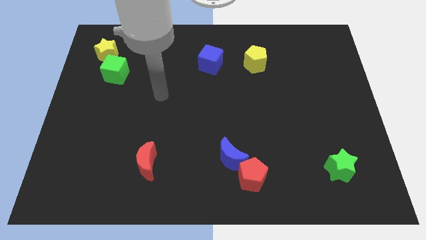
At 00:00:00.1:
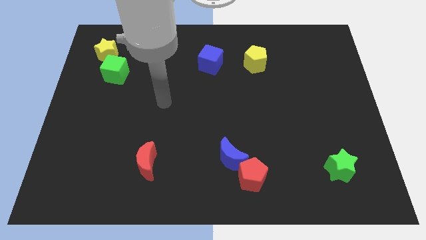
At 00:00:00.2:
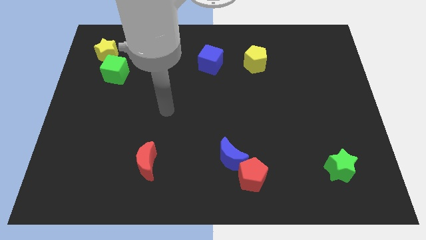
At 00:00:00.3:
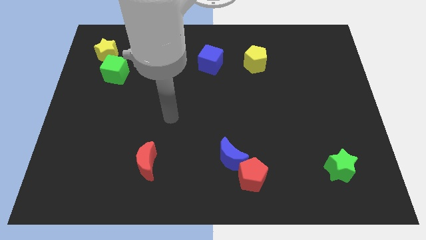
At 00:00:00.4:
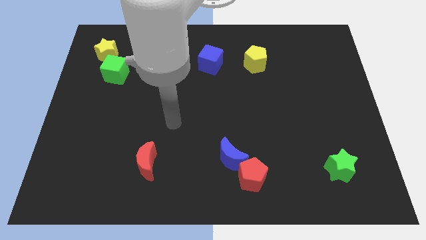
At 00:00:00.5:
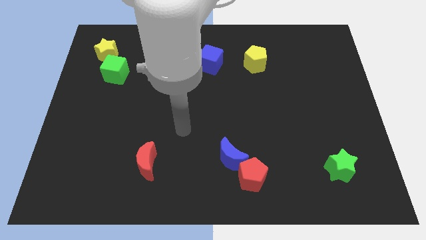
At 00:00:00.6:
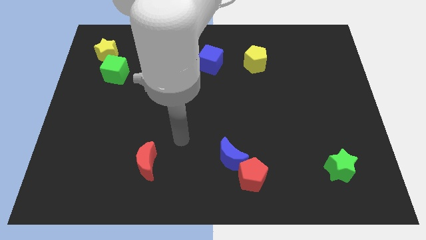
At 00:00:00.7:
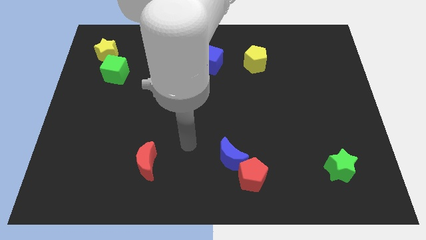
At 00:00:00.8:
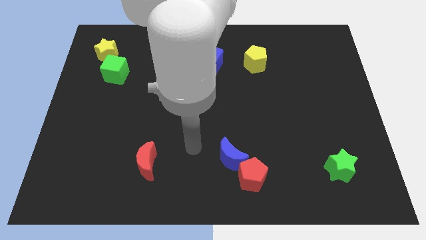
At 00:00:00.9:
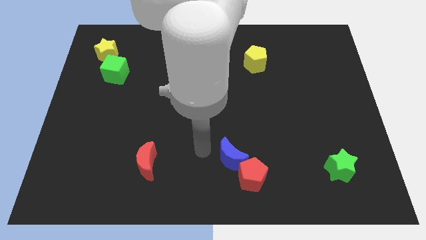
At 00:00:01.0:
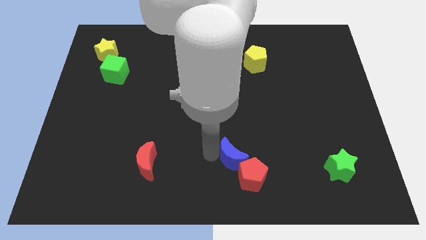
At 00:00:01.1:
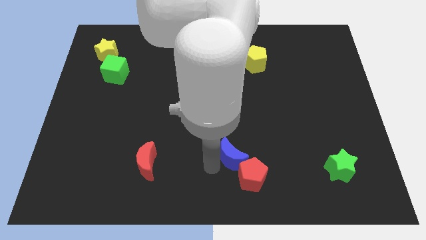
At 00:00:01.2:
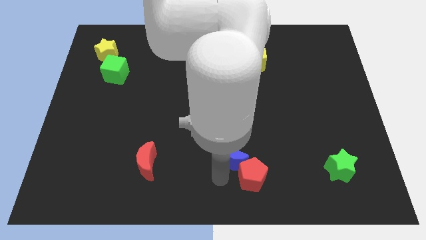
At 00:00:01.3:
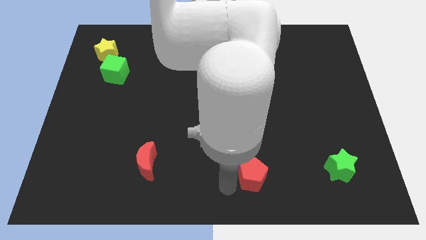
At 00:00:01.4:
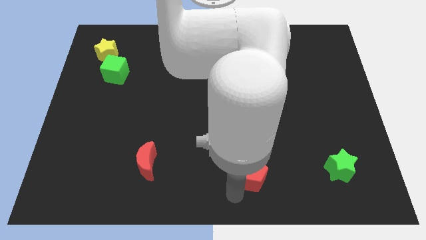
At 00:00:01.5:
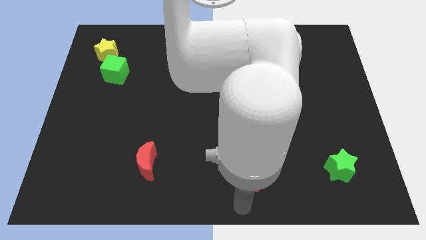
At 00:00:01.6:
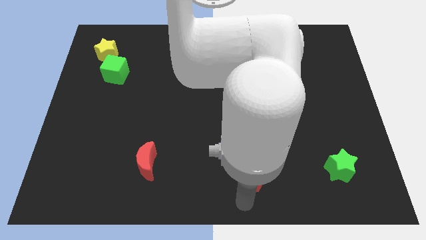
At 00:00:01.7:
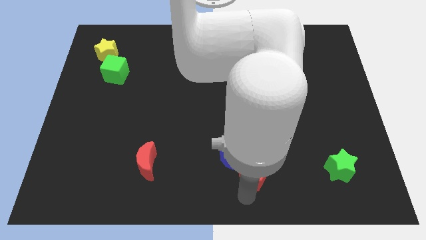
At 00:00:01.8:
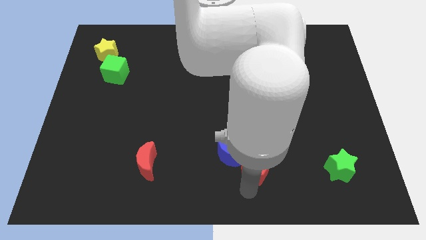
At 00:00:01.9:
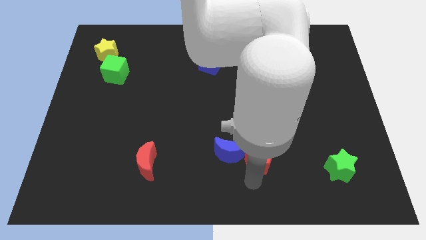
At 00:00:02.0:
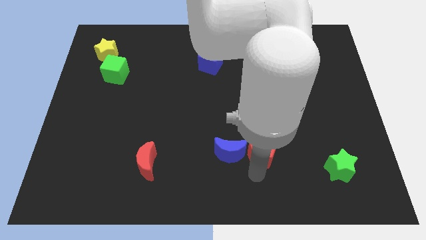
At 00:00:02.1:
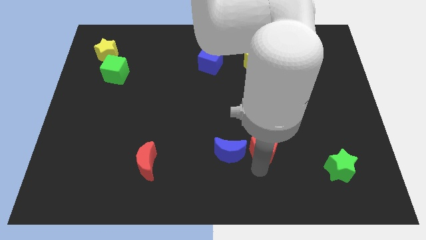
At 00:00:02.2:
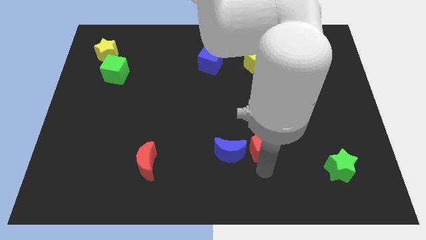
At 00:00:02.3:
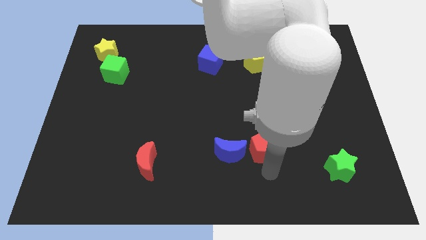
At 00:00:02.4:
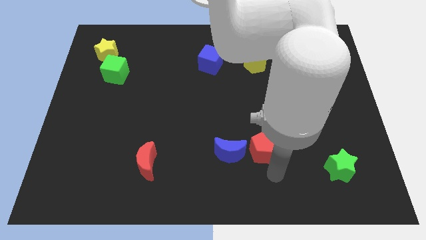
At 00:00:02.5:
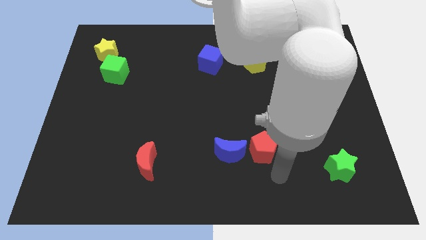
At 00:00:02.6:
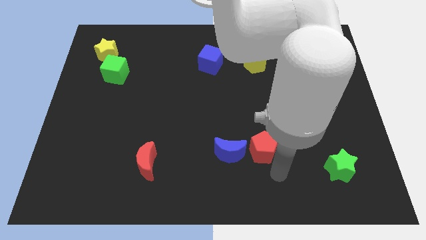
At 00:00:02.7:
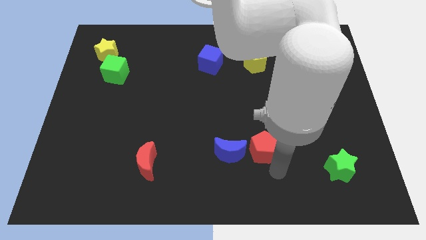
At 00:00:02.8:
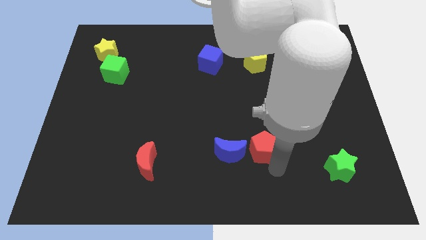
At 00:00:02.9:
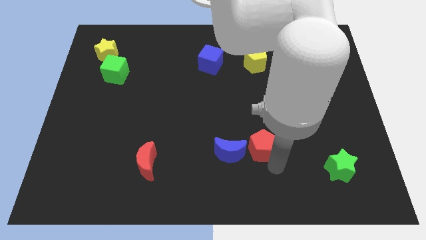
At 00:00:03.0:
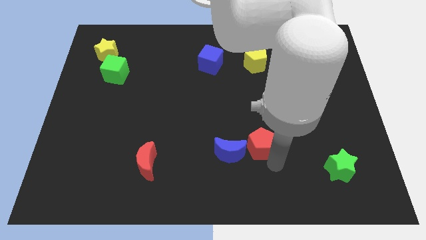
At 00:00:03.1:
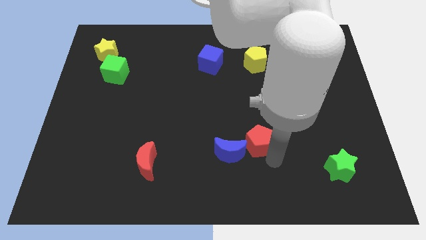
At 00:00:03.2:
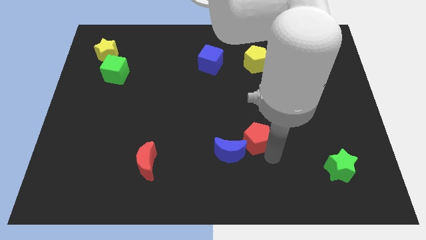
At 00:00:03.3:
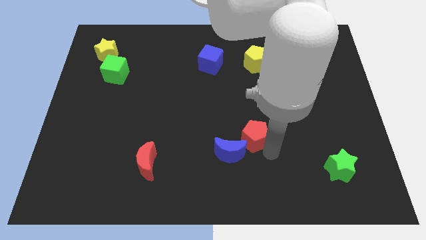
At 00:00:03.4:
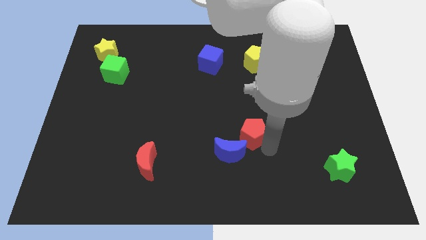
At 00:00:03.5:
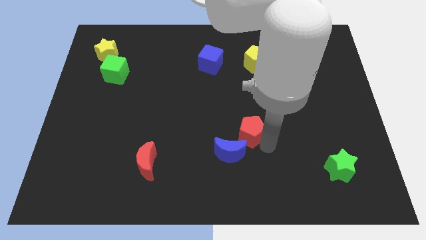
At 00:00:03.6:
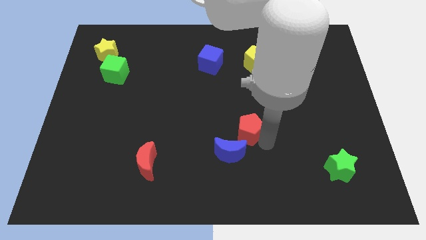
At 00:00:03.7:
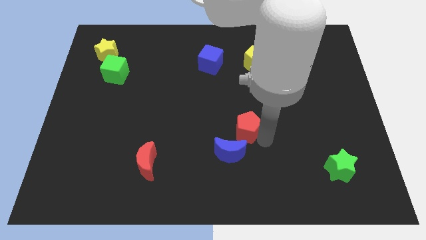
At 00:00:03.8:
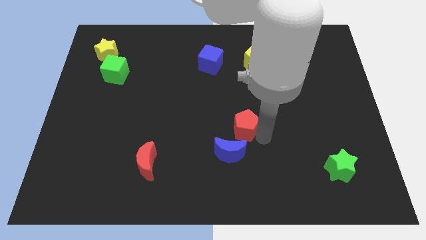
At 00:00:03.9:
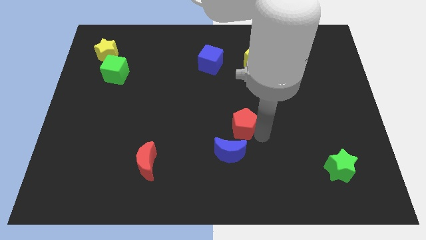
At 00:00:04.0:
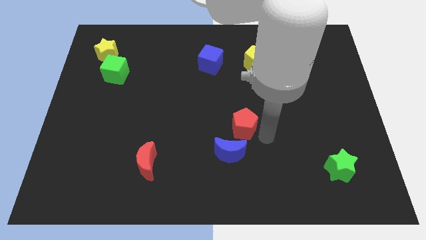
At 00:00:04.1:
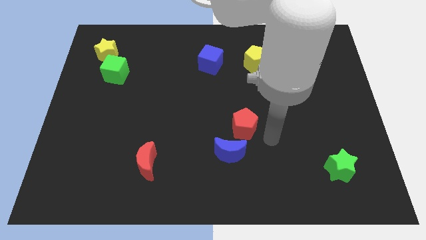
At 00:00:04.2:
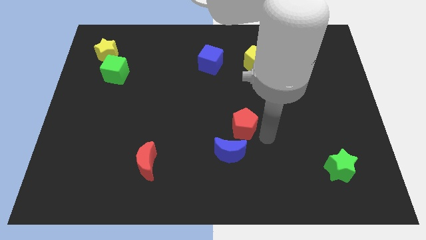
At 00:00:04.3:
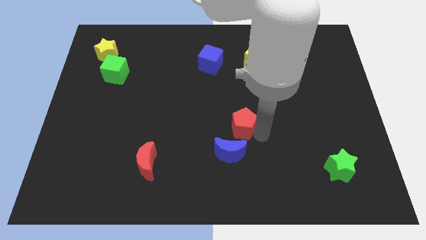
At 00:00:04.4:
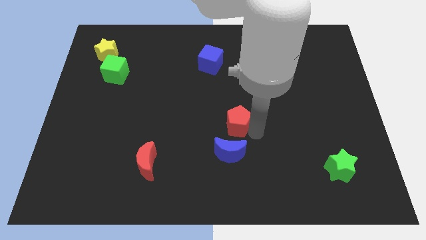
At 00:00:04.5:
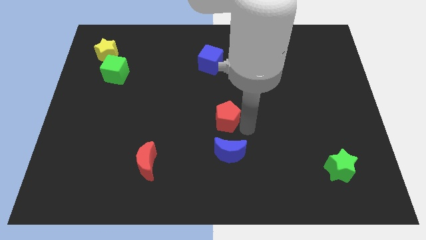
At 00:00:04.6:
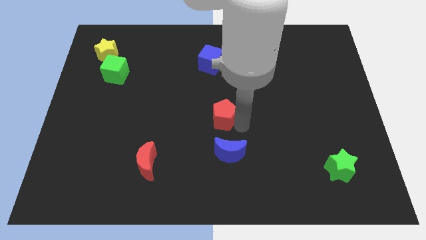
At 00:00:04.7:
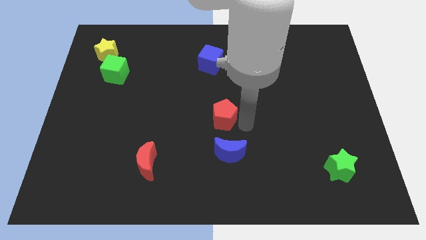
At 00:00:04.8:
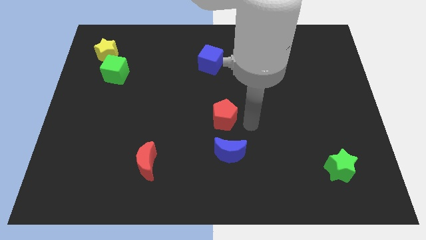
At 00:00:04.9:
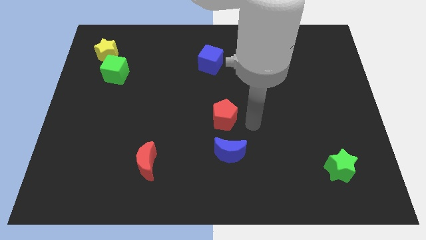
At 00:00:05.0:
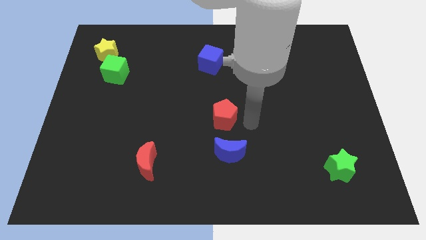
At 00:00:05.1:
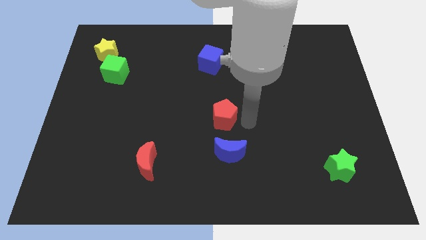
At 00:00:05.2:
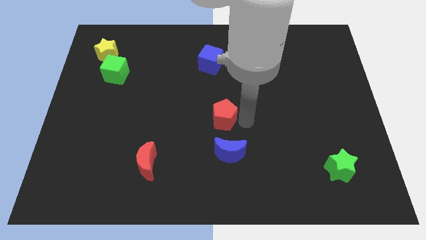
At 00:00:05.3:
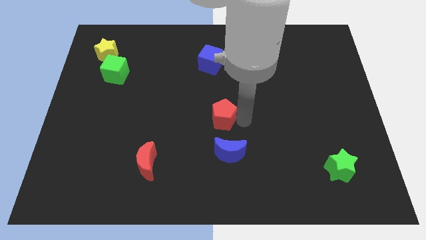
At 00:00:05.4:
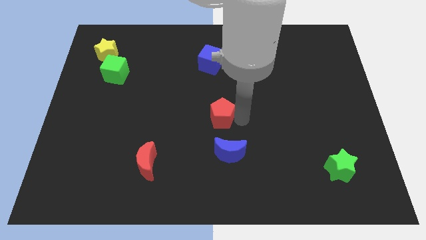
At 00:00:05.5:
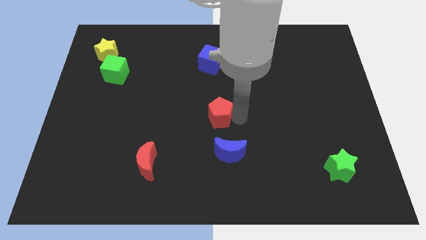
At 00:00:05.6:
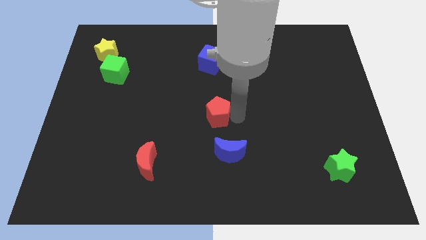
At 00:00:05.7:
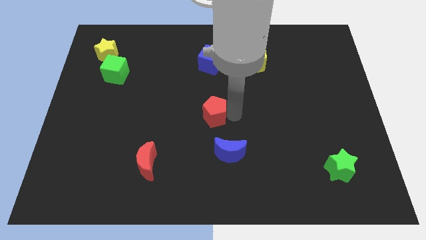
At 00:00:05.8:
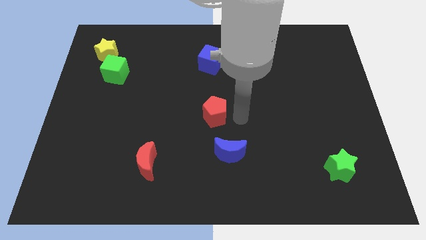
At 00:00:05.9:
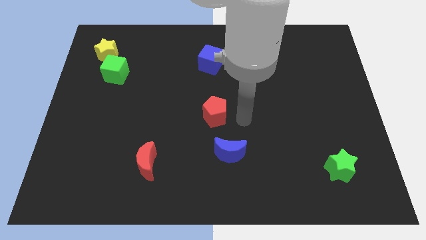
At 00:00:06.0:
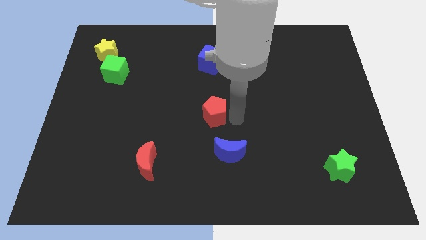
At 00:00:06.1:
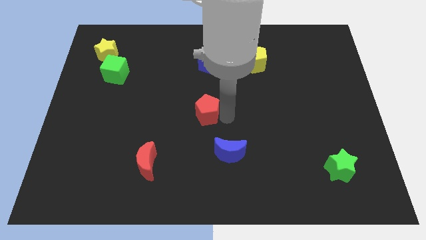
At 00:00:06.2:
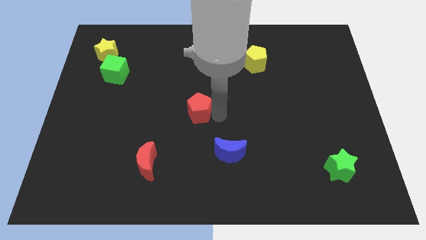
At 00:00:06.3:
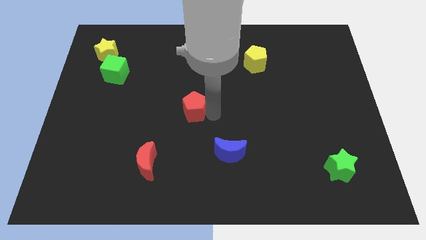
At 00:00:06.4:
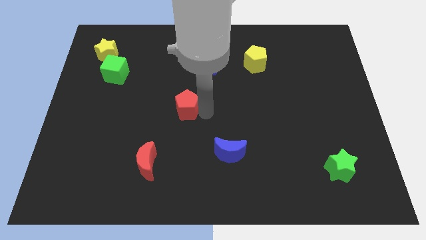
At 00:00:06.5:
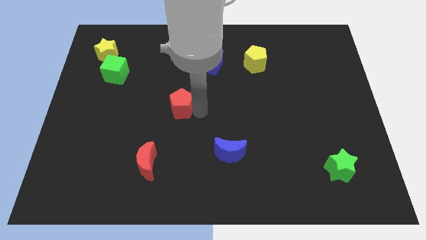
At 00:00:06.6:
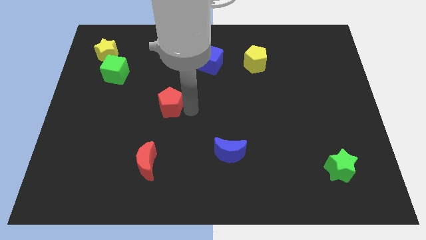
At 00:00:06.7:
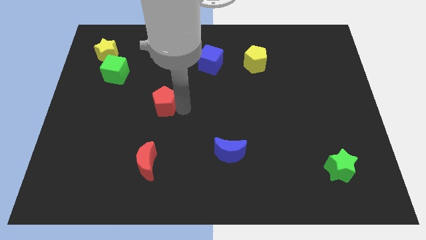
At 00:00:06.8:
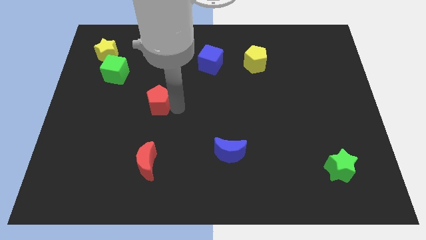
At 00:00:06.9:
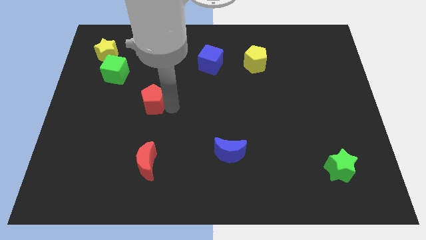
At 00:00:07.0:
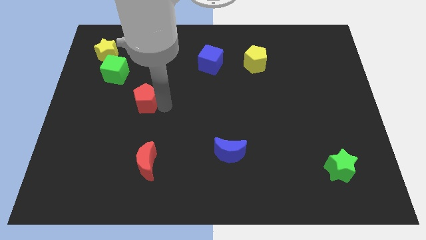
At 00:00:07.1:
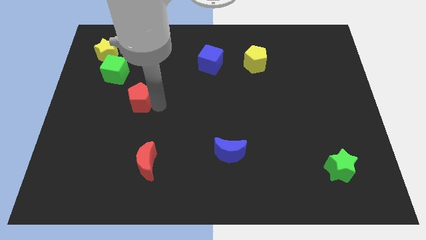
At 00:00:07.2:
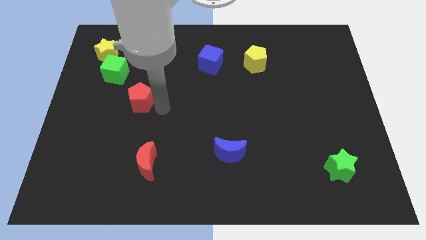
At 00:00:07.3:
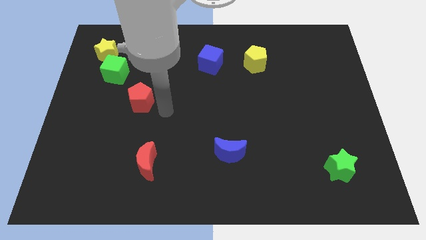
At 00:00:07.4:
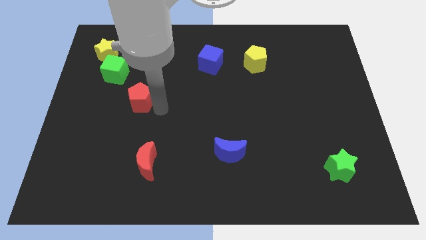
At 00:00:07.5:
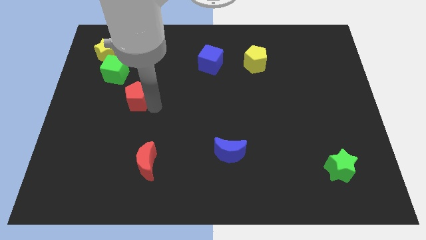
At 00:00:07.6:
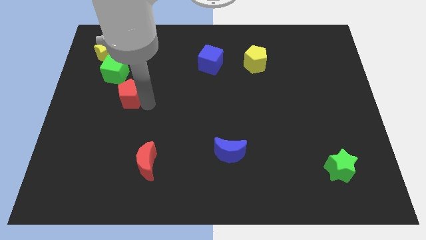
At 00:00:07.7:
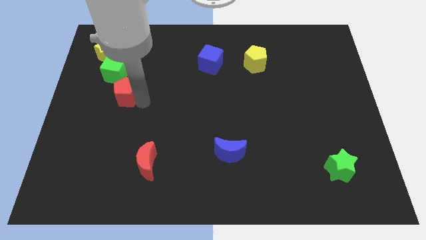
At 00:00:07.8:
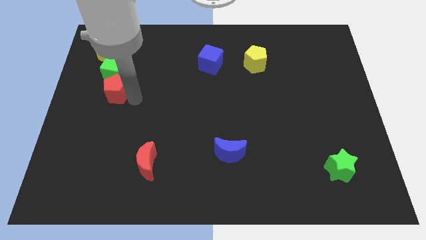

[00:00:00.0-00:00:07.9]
slide the red pentagon below the yellow star
